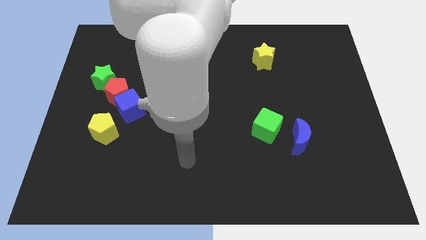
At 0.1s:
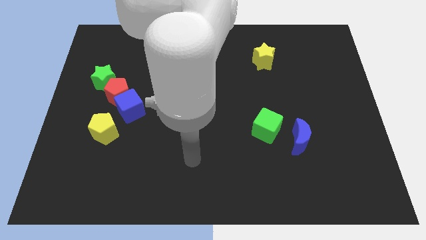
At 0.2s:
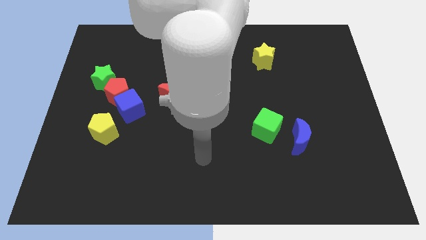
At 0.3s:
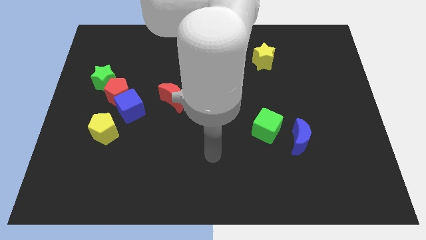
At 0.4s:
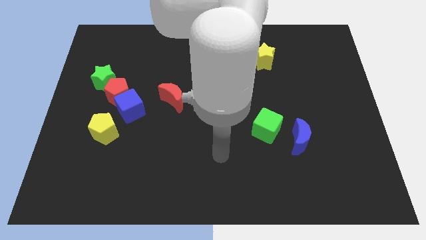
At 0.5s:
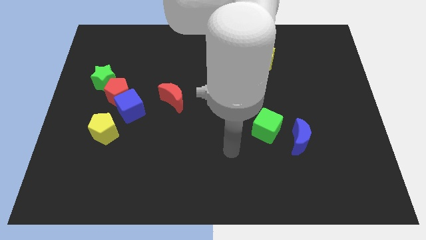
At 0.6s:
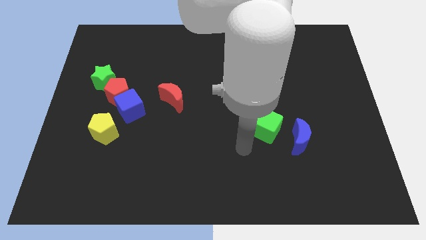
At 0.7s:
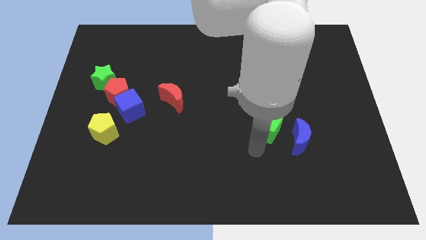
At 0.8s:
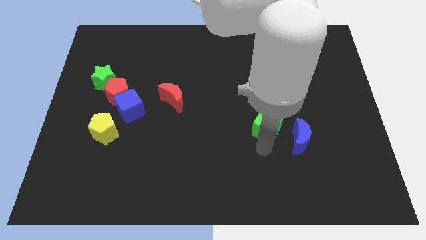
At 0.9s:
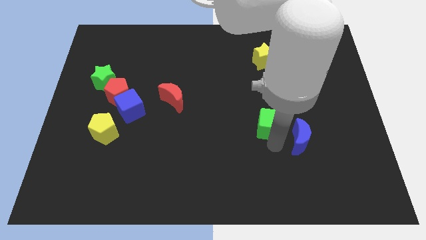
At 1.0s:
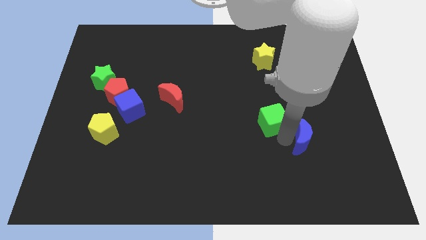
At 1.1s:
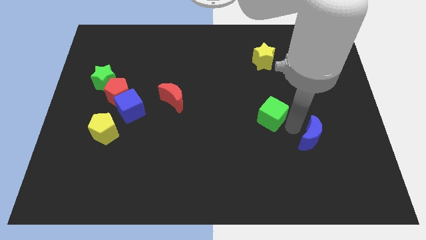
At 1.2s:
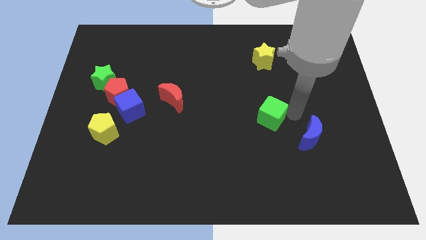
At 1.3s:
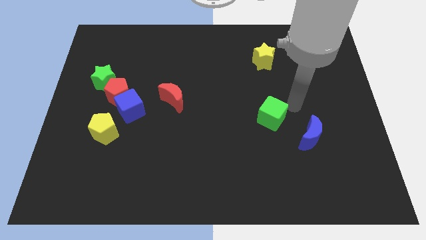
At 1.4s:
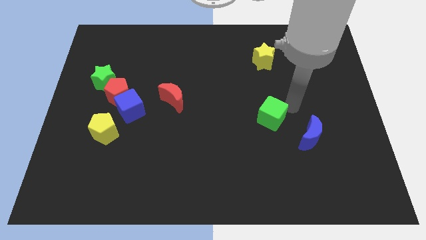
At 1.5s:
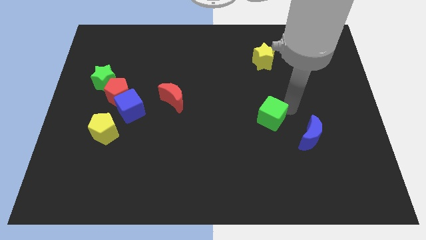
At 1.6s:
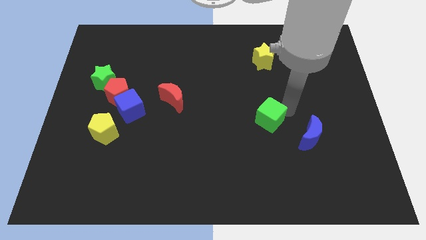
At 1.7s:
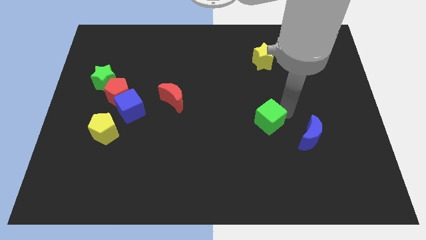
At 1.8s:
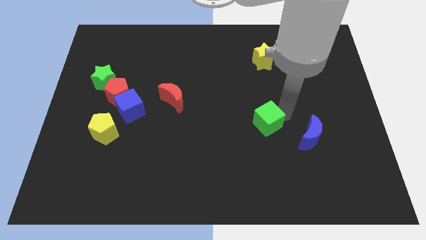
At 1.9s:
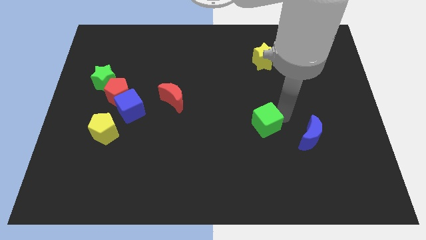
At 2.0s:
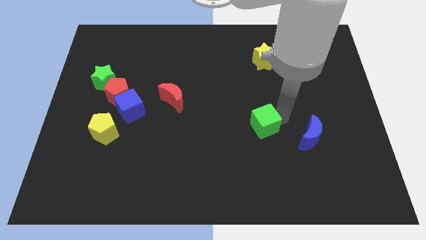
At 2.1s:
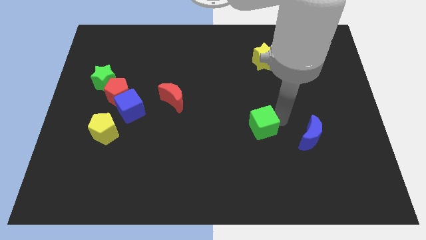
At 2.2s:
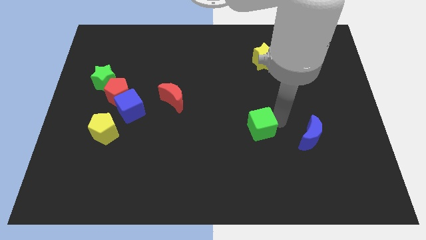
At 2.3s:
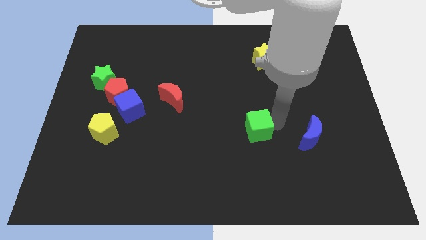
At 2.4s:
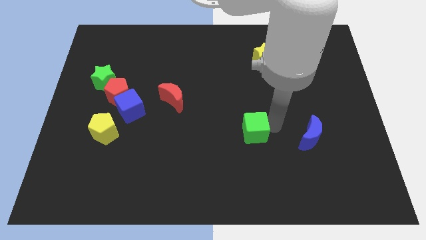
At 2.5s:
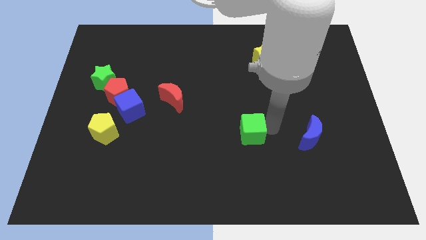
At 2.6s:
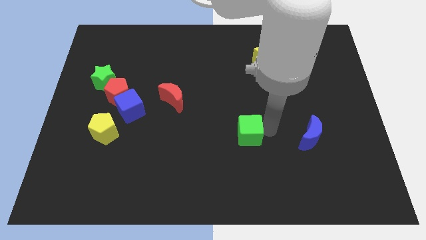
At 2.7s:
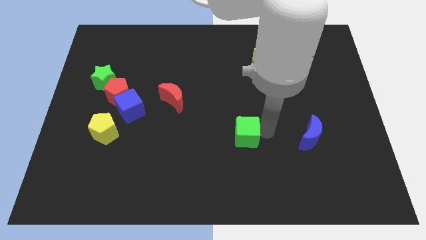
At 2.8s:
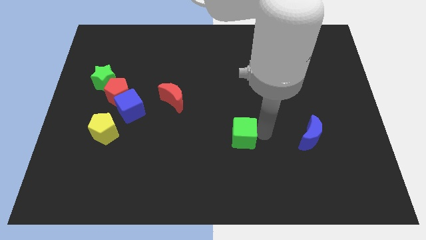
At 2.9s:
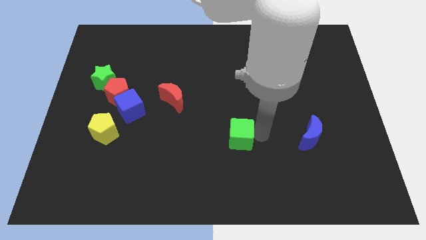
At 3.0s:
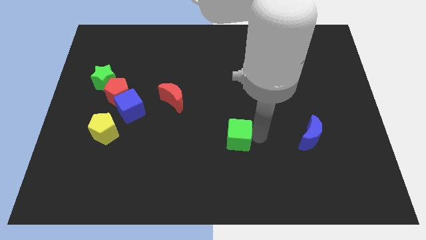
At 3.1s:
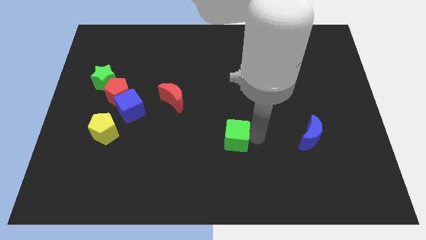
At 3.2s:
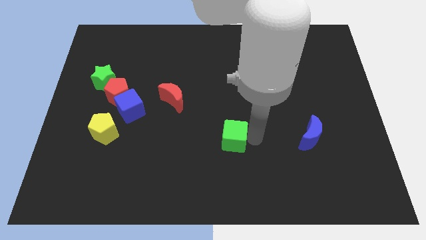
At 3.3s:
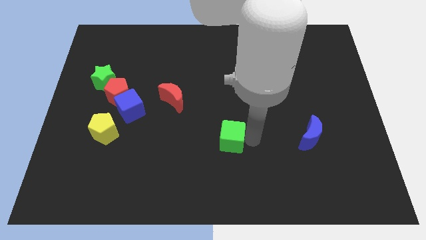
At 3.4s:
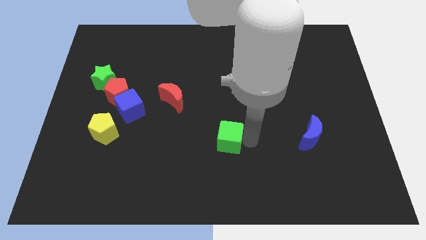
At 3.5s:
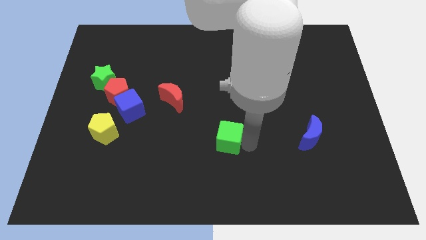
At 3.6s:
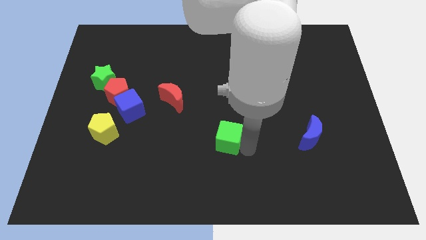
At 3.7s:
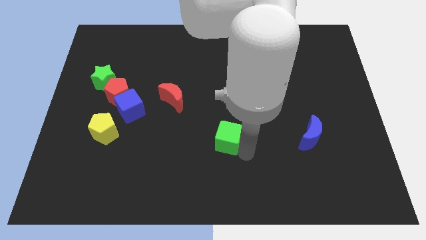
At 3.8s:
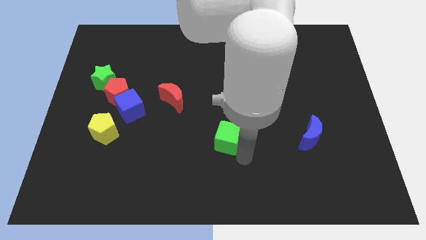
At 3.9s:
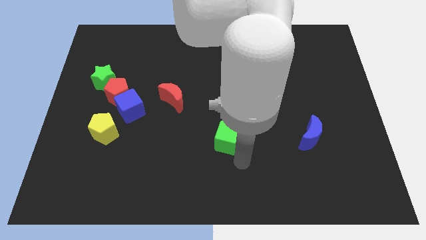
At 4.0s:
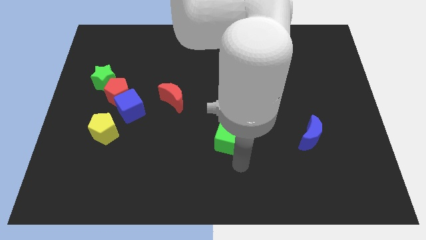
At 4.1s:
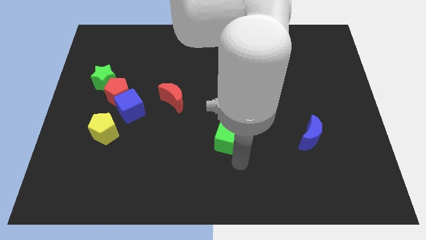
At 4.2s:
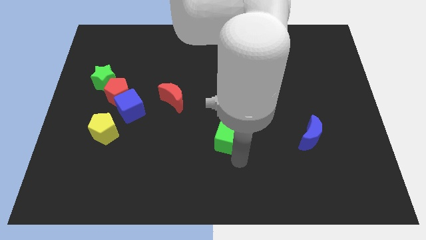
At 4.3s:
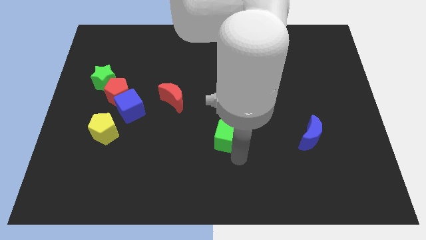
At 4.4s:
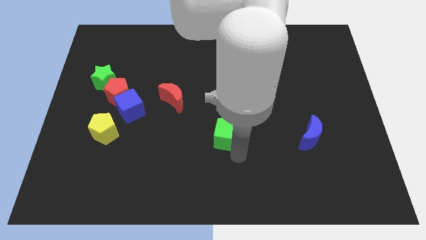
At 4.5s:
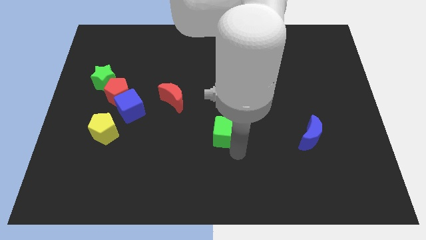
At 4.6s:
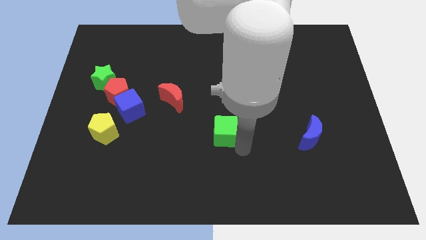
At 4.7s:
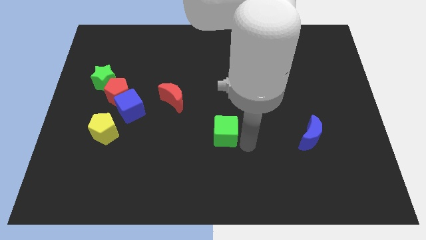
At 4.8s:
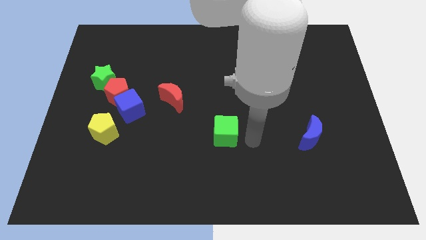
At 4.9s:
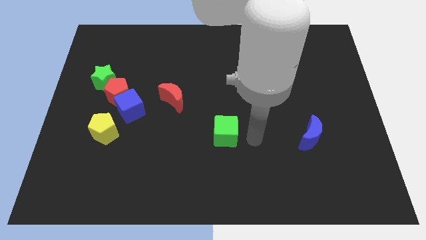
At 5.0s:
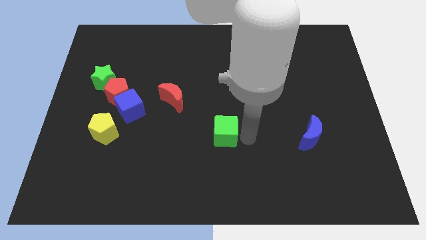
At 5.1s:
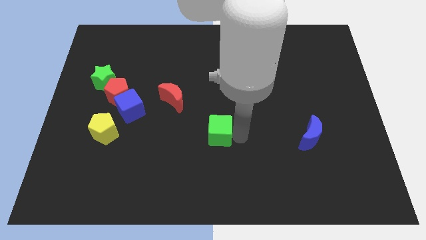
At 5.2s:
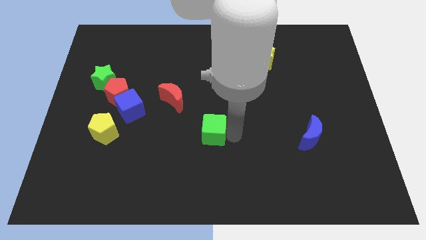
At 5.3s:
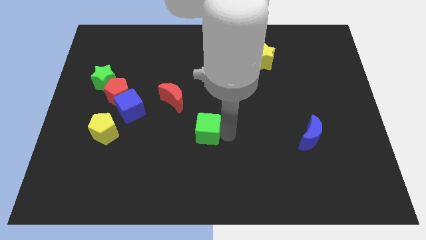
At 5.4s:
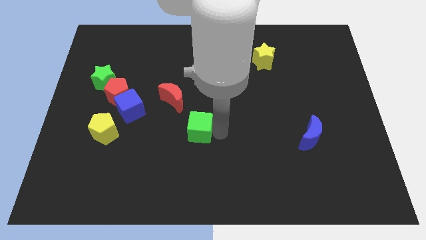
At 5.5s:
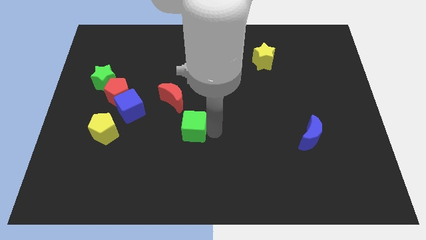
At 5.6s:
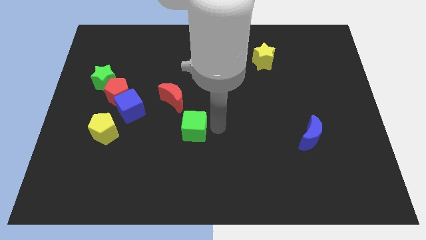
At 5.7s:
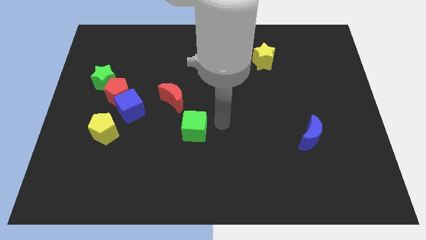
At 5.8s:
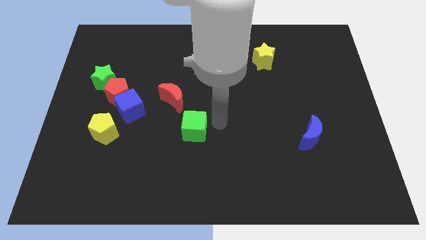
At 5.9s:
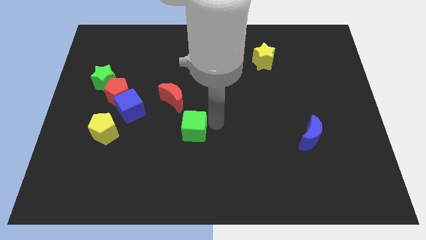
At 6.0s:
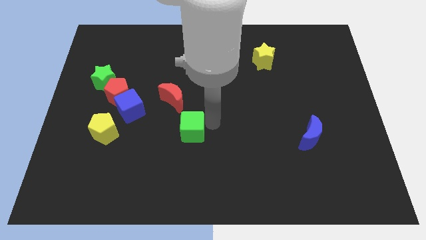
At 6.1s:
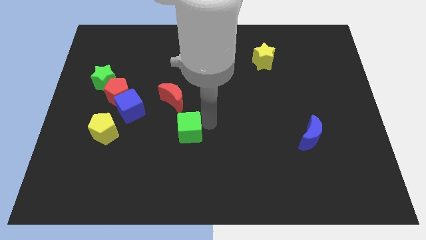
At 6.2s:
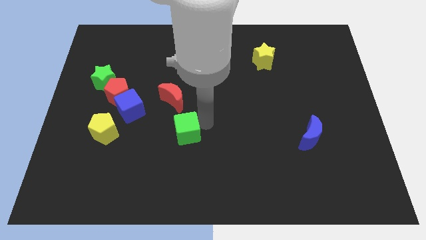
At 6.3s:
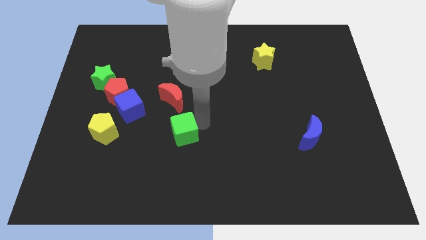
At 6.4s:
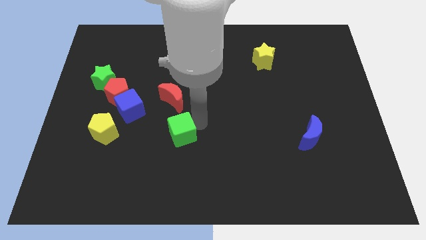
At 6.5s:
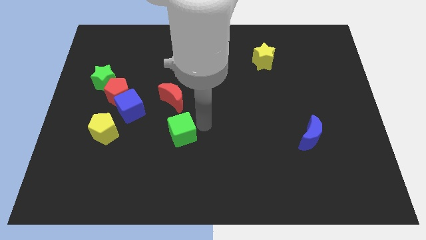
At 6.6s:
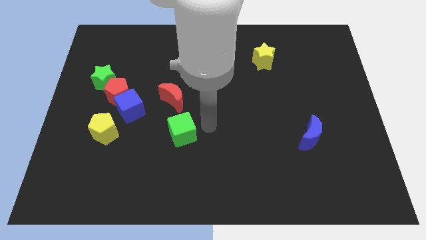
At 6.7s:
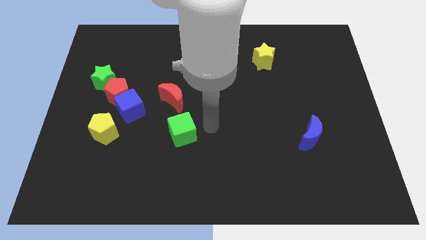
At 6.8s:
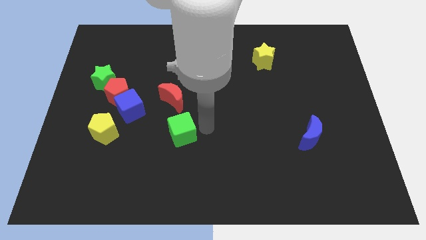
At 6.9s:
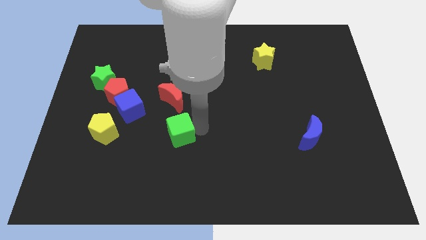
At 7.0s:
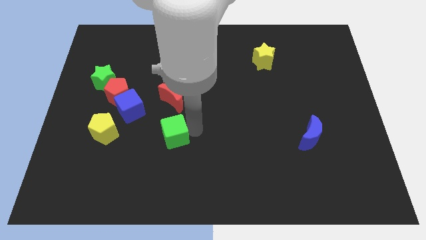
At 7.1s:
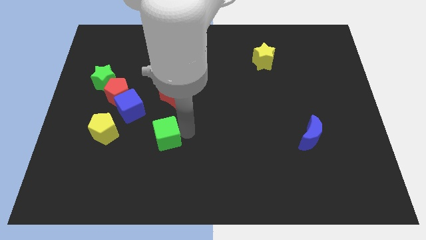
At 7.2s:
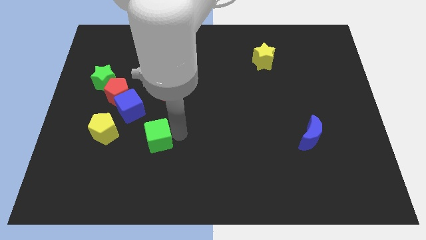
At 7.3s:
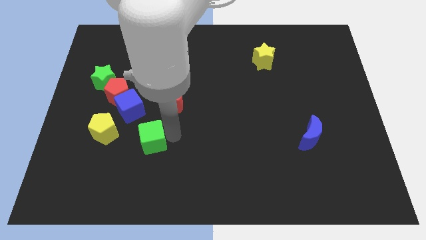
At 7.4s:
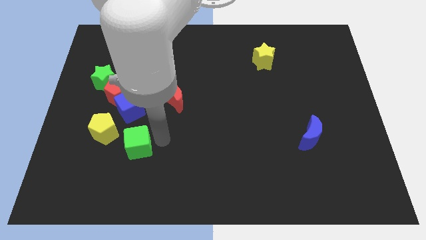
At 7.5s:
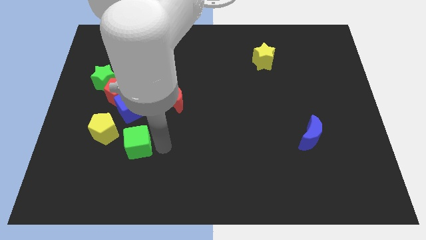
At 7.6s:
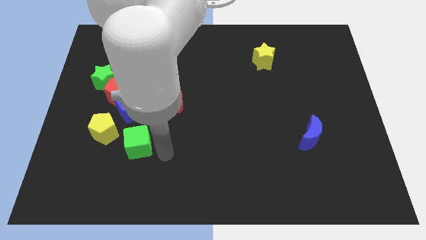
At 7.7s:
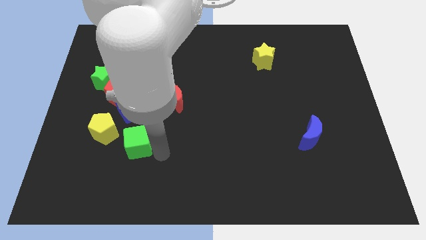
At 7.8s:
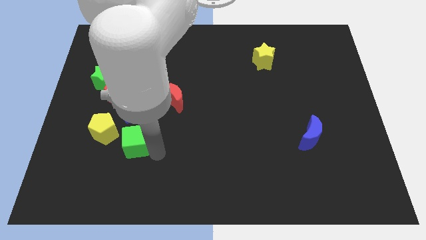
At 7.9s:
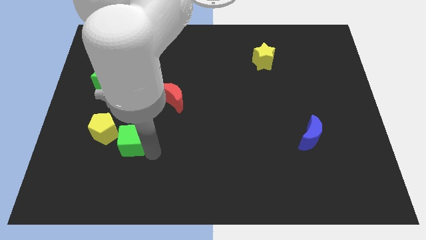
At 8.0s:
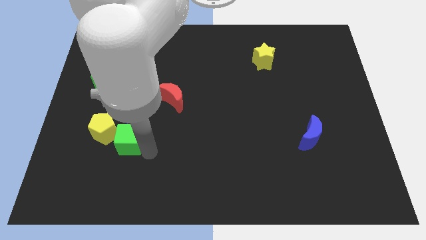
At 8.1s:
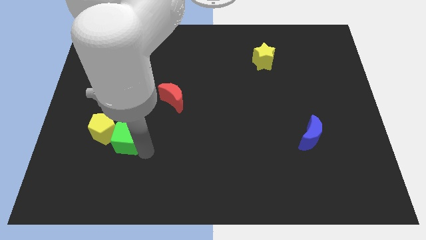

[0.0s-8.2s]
put the green cube close to the yellow pentagon
